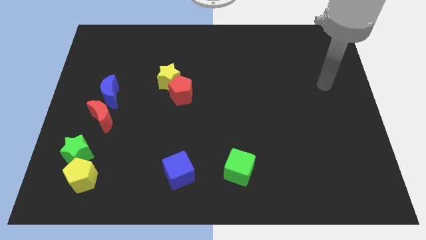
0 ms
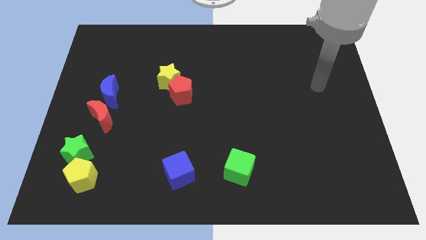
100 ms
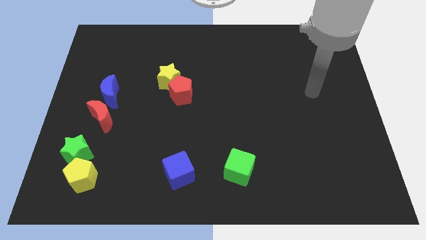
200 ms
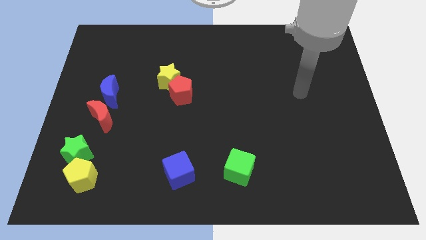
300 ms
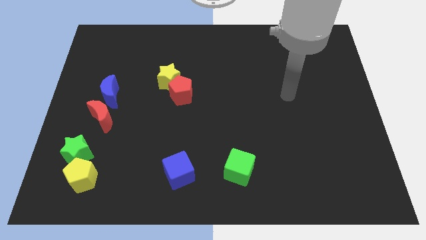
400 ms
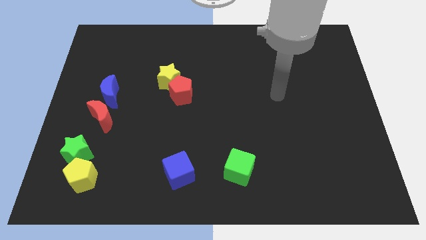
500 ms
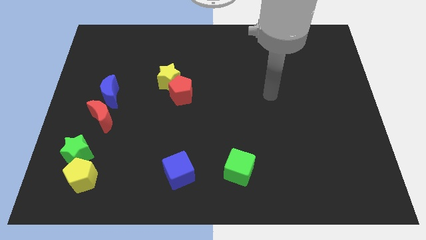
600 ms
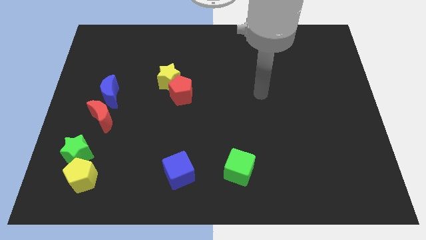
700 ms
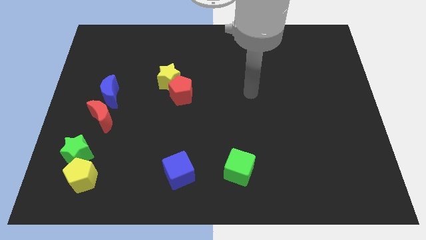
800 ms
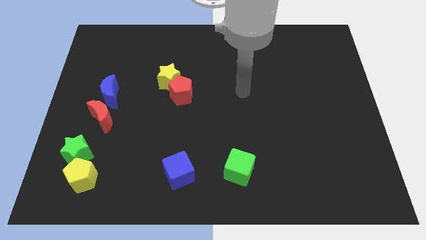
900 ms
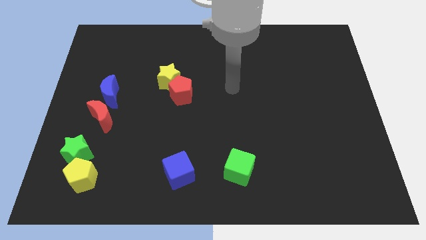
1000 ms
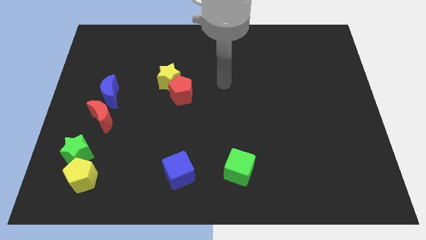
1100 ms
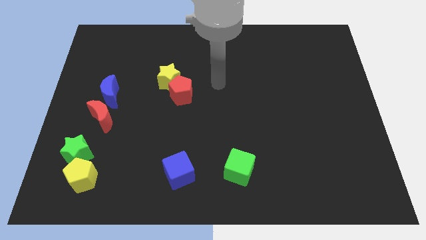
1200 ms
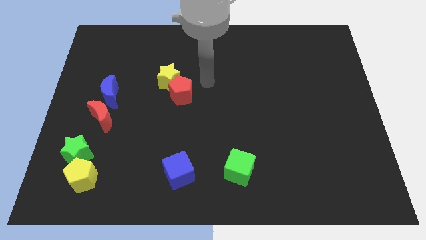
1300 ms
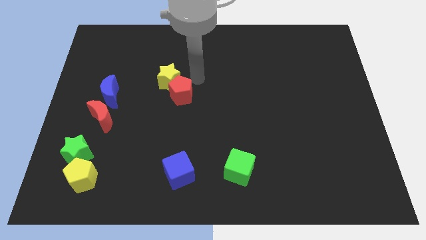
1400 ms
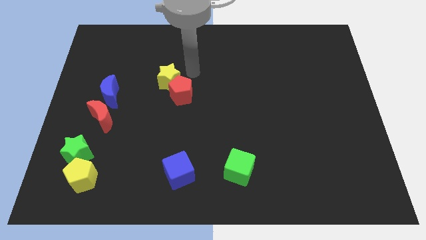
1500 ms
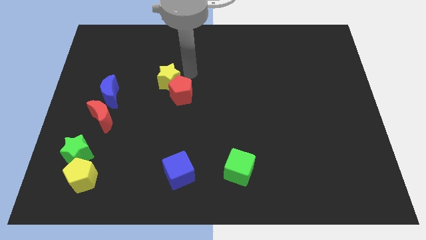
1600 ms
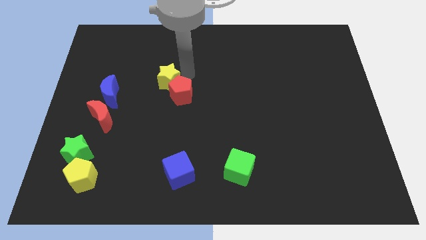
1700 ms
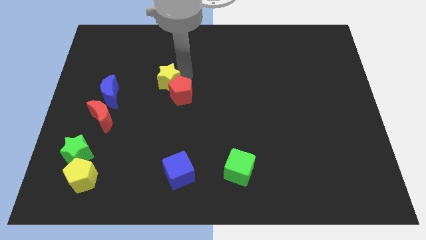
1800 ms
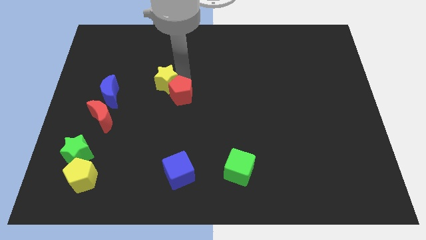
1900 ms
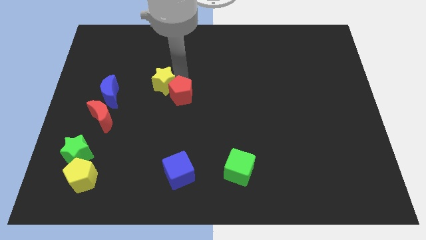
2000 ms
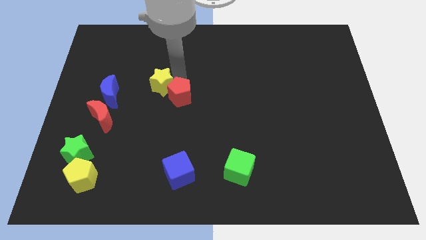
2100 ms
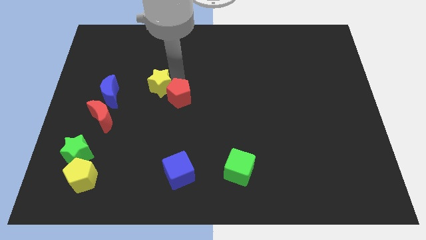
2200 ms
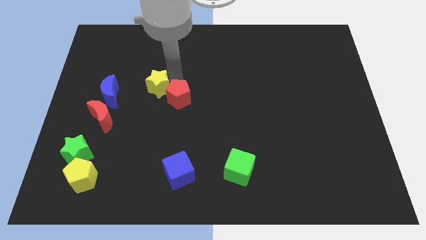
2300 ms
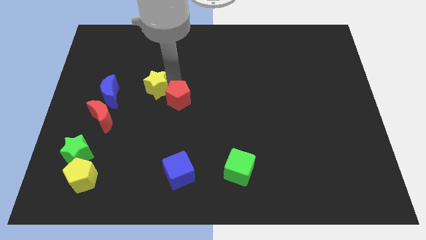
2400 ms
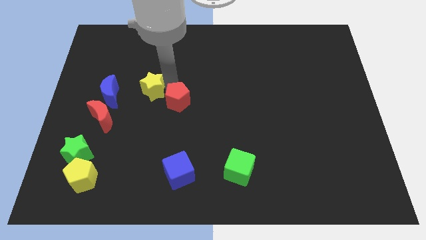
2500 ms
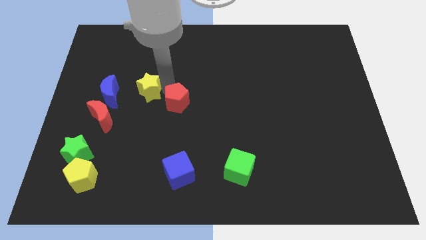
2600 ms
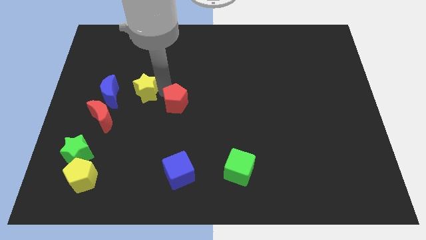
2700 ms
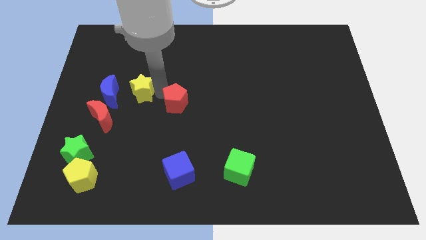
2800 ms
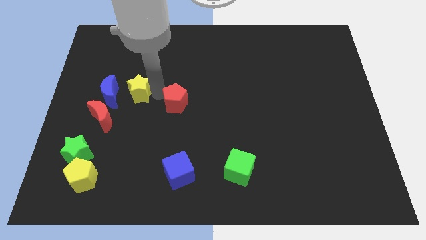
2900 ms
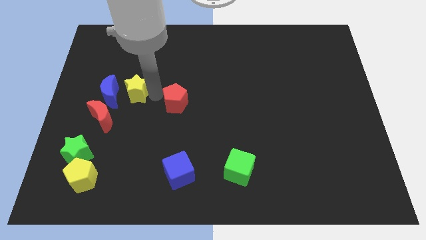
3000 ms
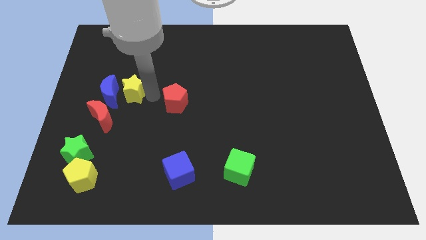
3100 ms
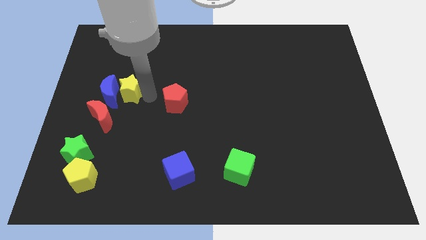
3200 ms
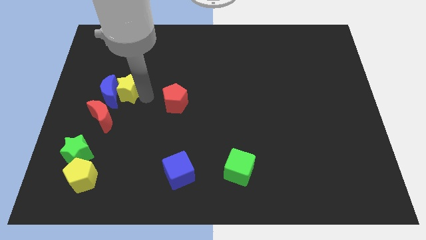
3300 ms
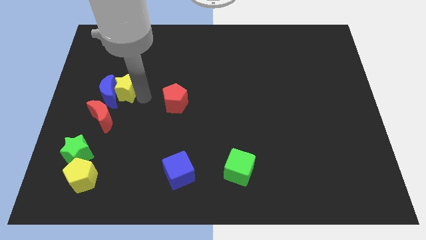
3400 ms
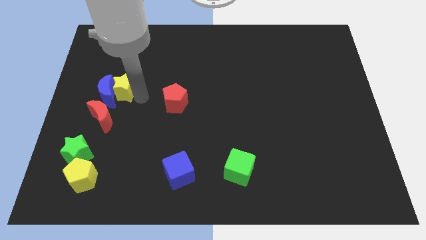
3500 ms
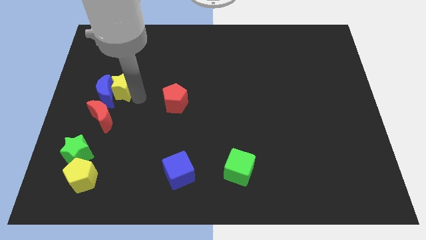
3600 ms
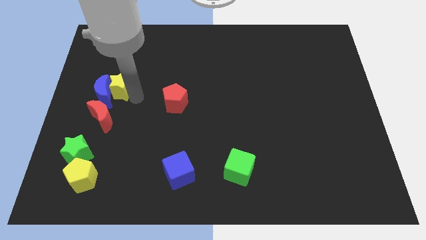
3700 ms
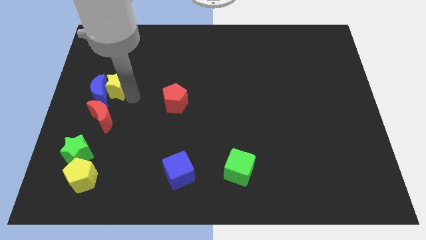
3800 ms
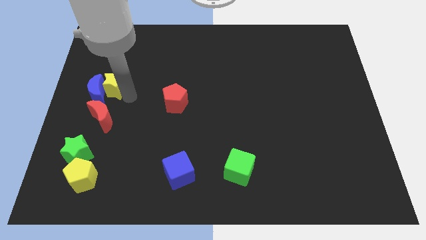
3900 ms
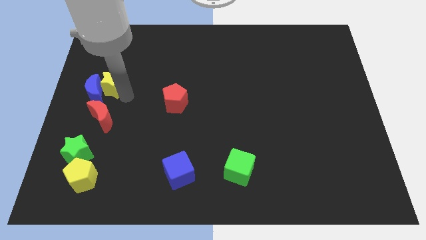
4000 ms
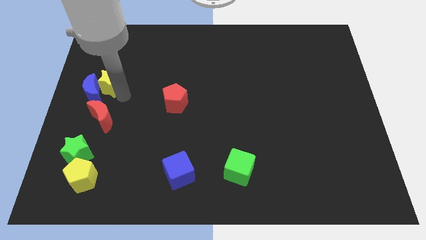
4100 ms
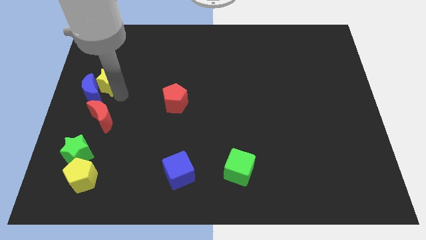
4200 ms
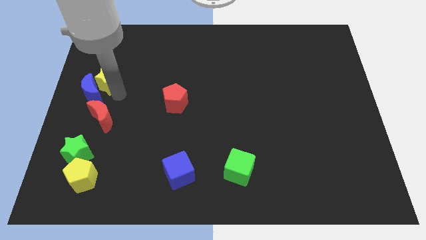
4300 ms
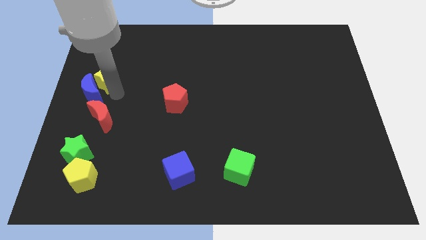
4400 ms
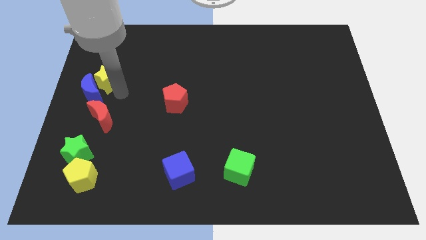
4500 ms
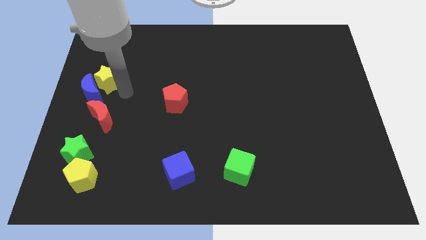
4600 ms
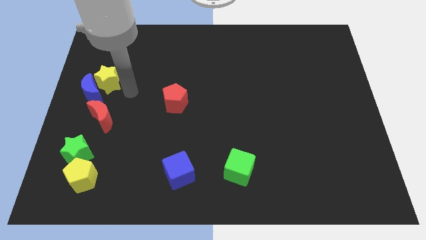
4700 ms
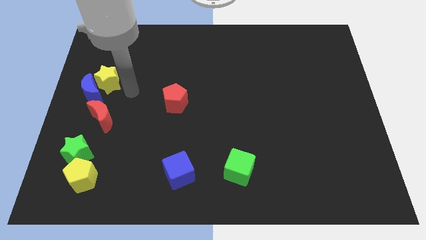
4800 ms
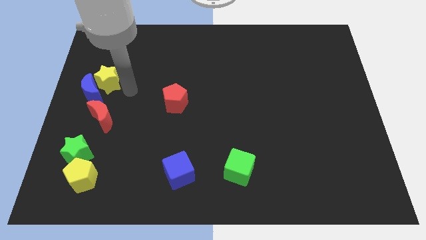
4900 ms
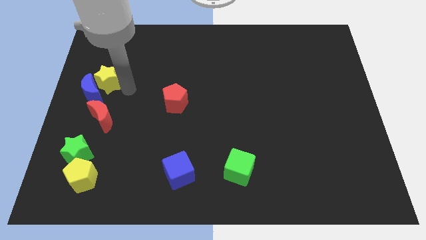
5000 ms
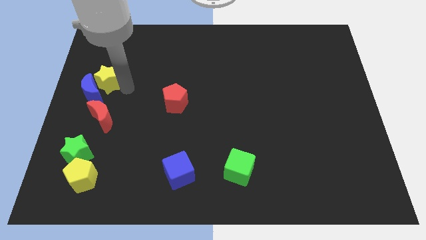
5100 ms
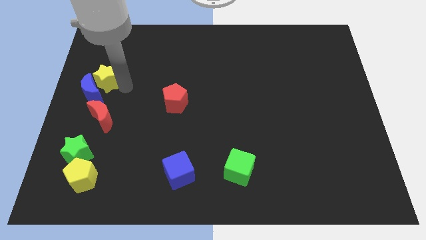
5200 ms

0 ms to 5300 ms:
push the yellow star to the left side
